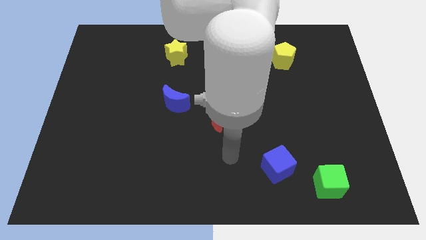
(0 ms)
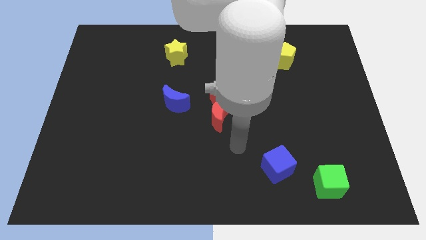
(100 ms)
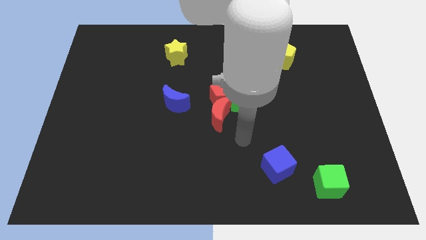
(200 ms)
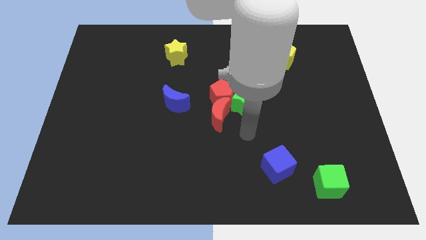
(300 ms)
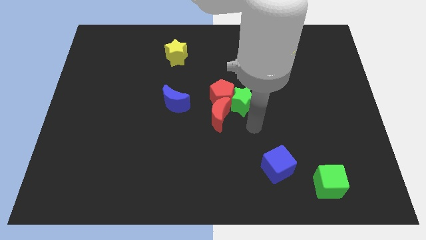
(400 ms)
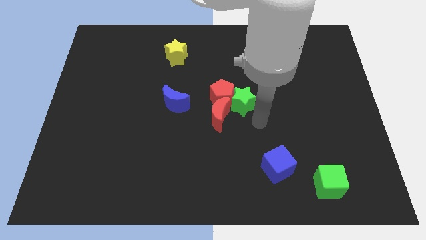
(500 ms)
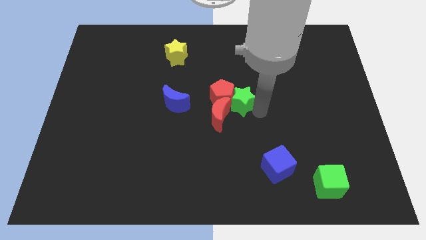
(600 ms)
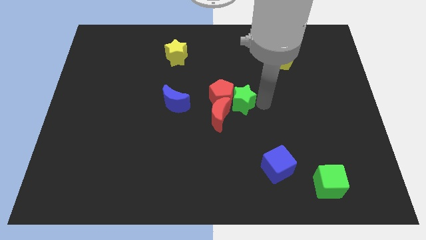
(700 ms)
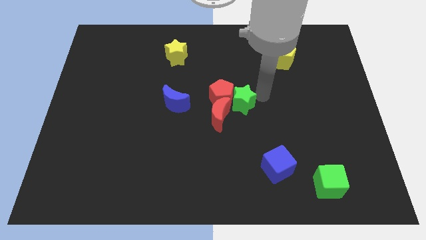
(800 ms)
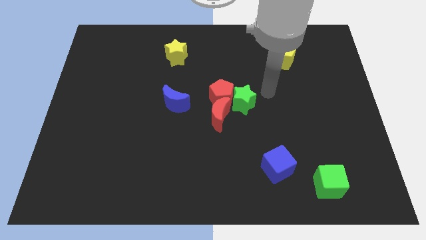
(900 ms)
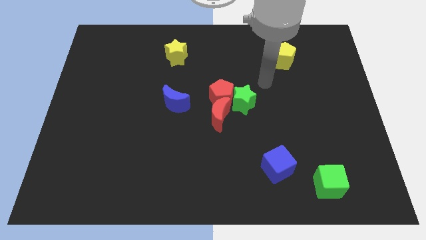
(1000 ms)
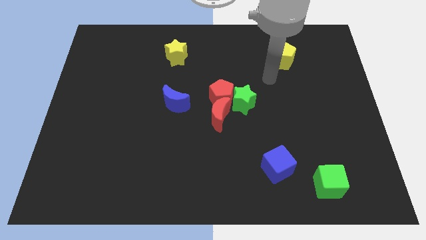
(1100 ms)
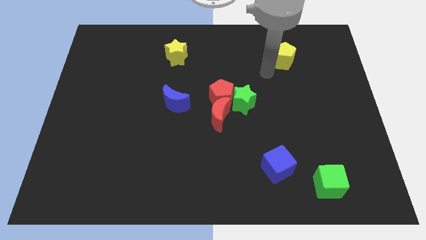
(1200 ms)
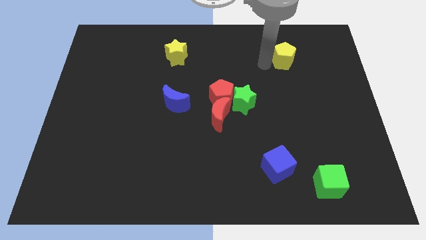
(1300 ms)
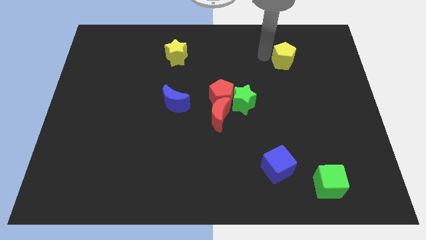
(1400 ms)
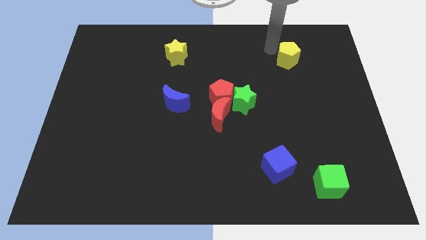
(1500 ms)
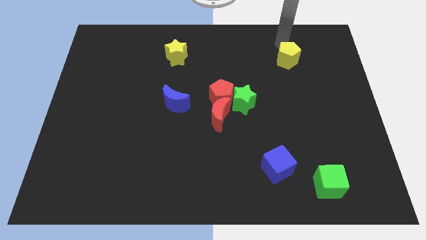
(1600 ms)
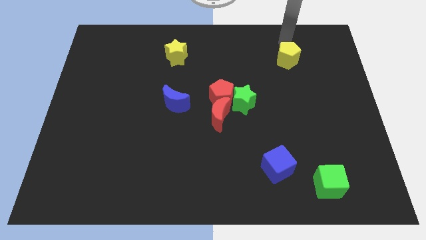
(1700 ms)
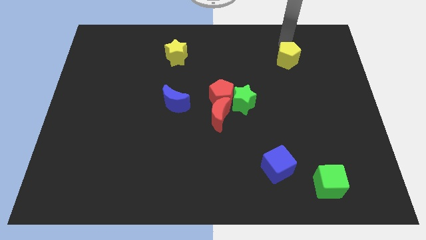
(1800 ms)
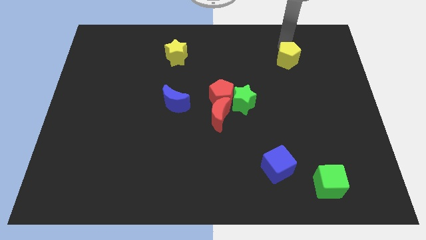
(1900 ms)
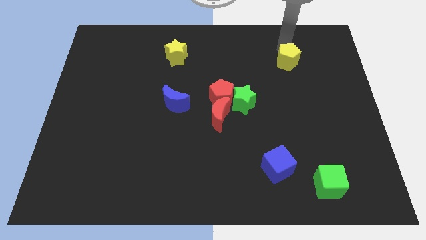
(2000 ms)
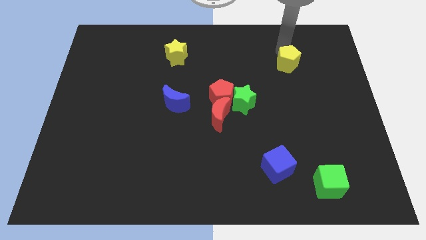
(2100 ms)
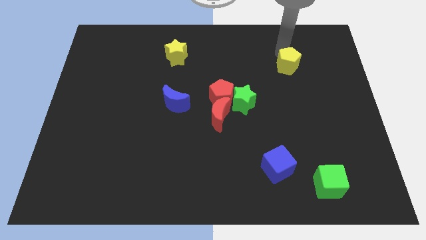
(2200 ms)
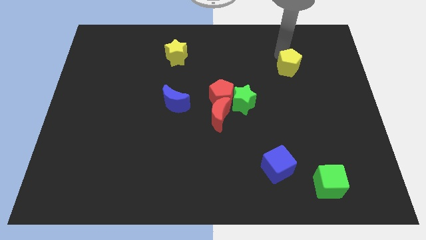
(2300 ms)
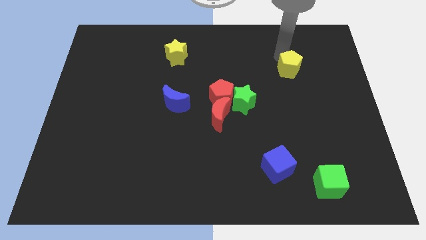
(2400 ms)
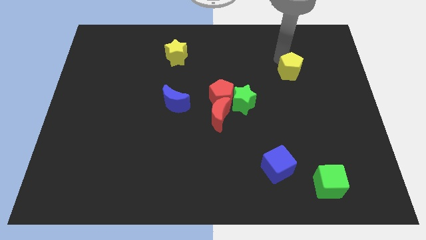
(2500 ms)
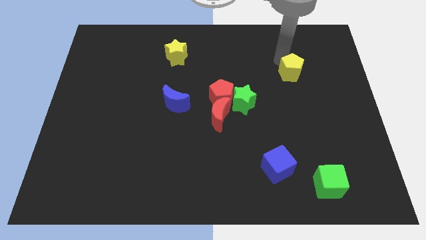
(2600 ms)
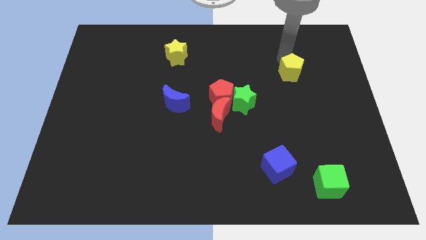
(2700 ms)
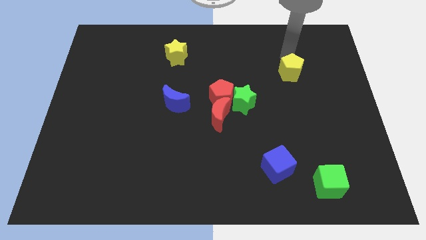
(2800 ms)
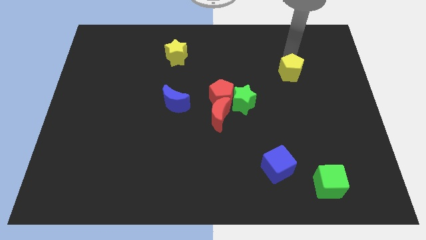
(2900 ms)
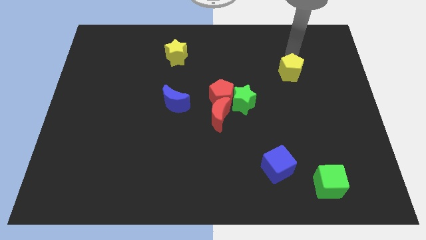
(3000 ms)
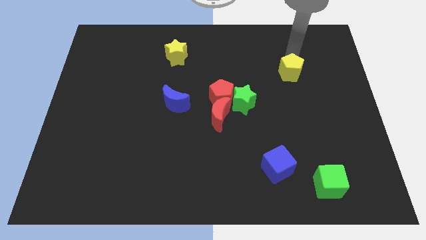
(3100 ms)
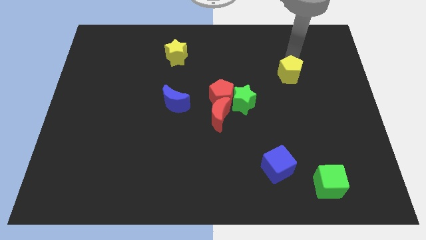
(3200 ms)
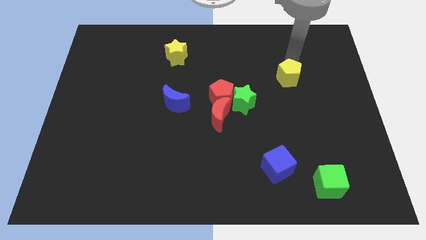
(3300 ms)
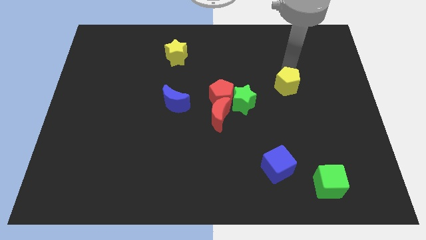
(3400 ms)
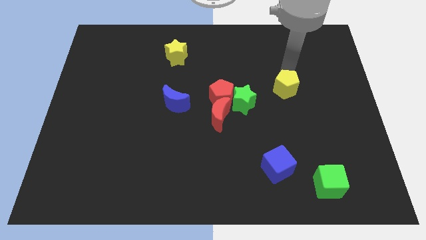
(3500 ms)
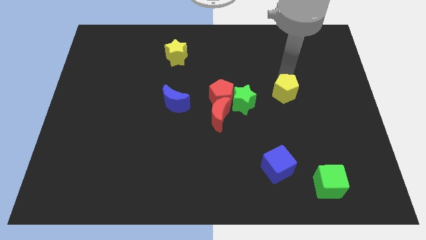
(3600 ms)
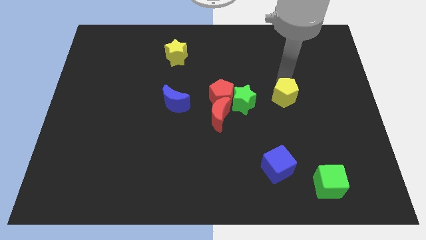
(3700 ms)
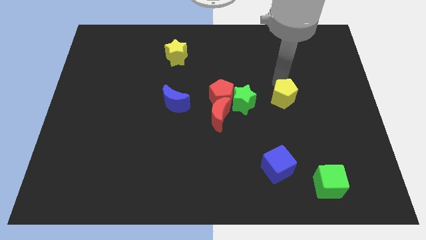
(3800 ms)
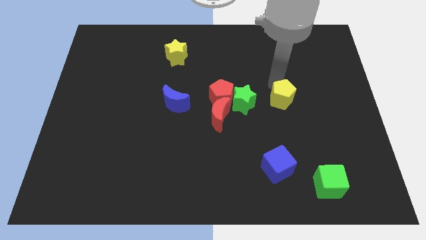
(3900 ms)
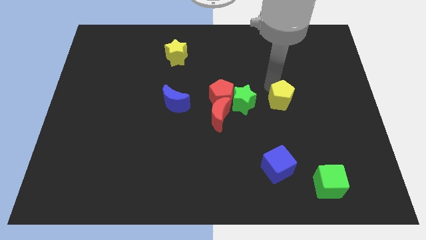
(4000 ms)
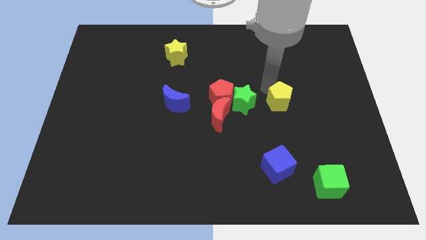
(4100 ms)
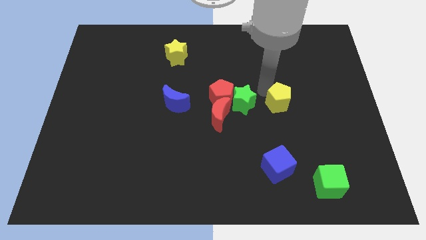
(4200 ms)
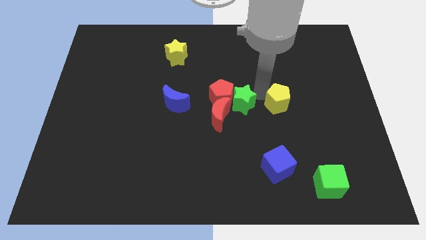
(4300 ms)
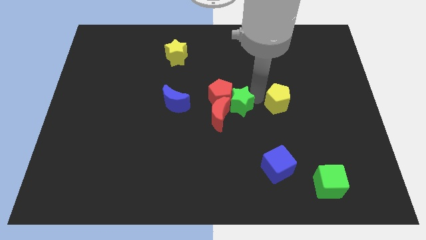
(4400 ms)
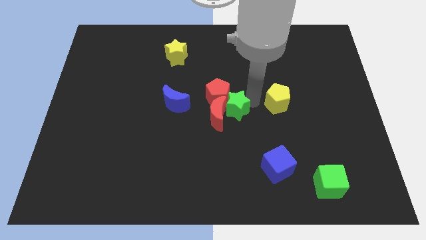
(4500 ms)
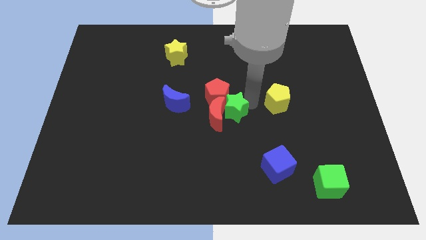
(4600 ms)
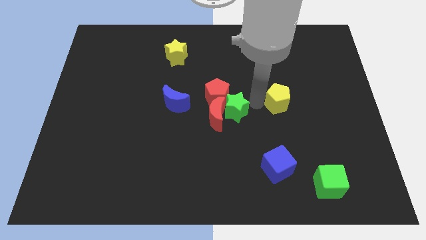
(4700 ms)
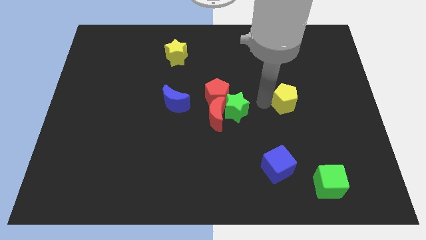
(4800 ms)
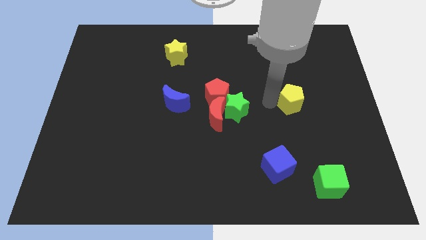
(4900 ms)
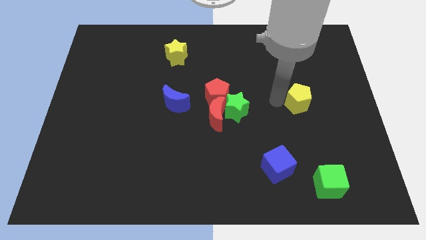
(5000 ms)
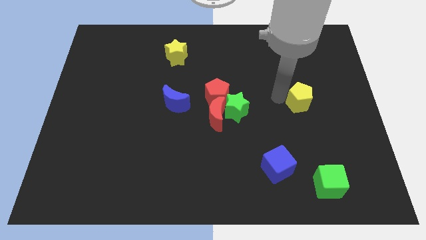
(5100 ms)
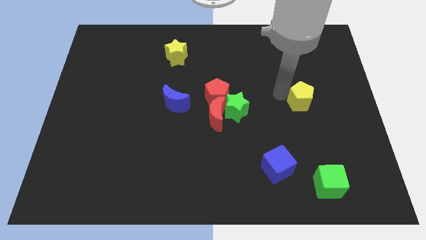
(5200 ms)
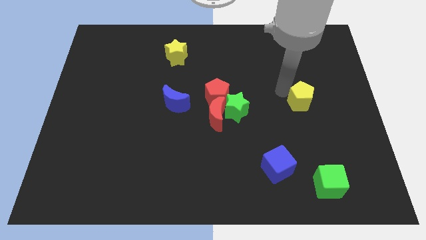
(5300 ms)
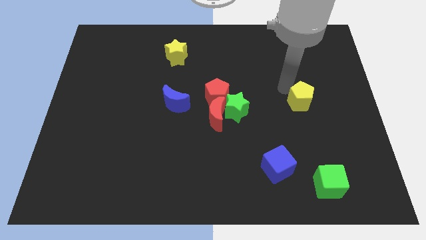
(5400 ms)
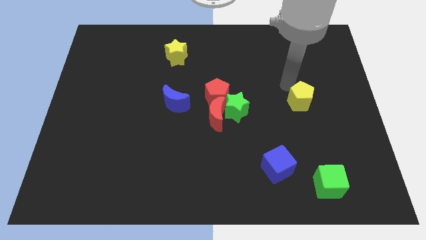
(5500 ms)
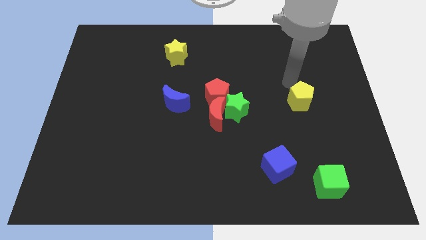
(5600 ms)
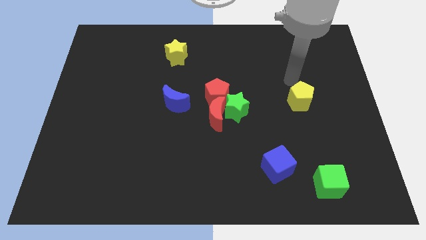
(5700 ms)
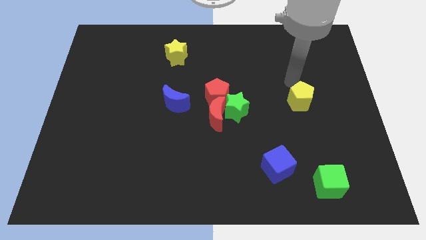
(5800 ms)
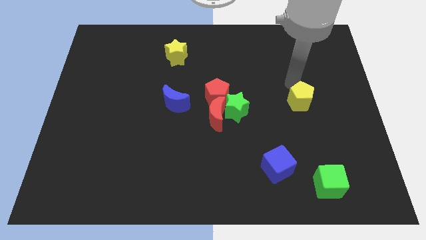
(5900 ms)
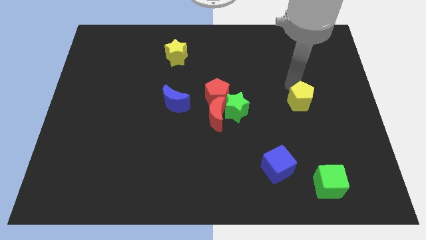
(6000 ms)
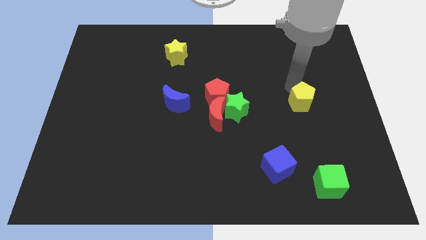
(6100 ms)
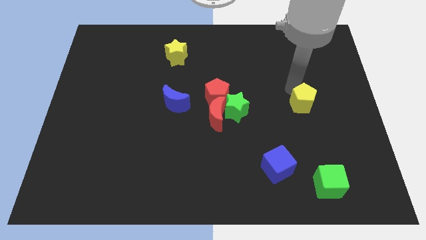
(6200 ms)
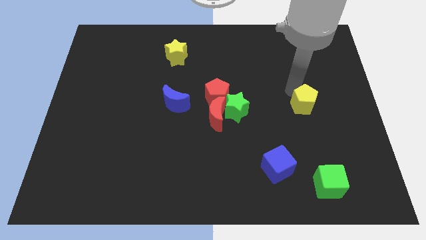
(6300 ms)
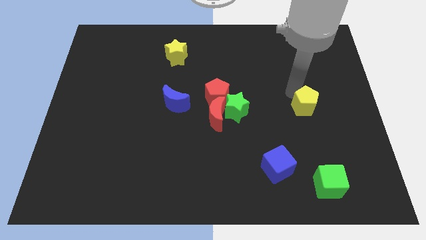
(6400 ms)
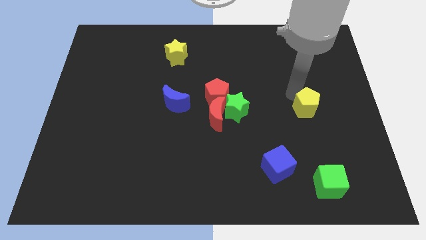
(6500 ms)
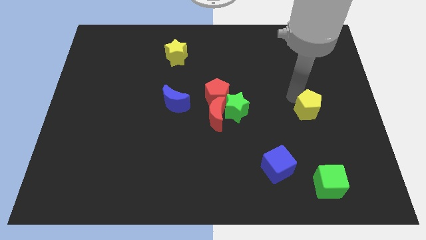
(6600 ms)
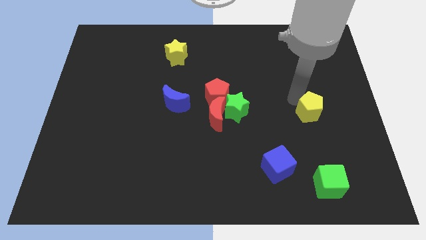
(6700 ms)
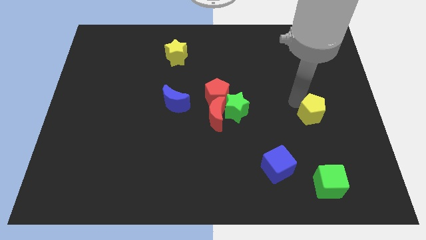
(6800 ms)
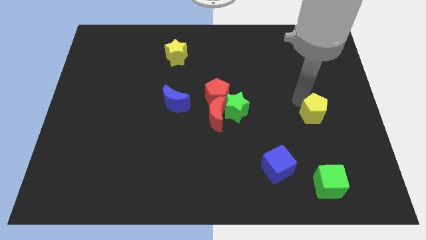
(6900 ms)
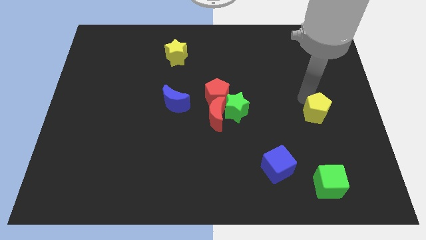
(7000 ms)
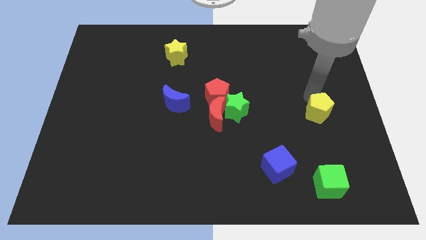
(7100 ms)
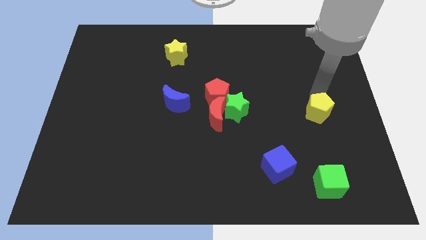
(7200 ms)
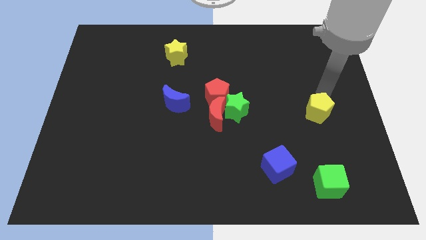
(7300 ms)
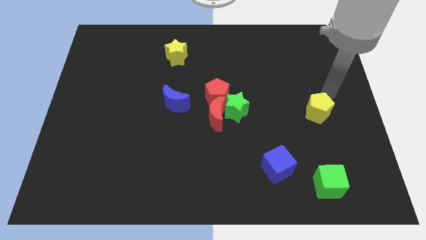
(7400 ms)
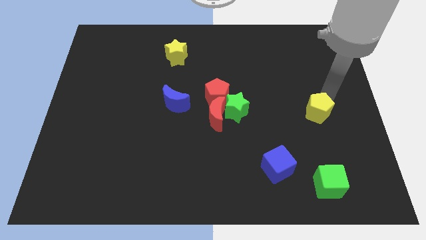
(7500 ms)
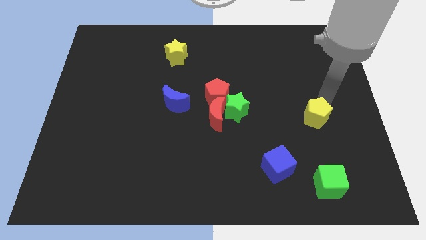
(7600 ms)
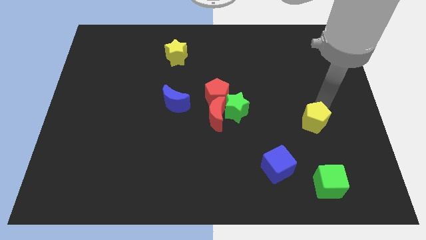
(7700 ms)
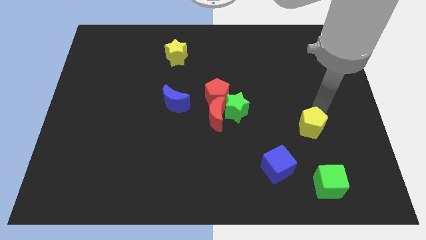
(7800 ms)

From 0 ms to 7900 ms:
slide the yellow pentagon downwards
